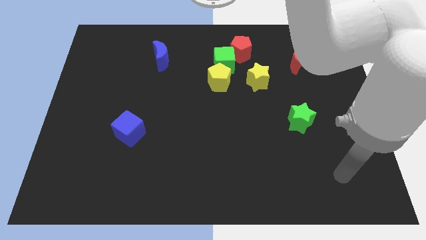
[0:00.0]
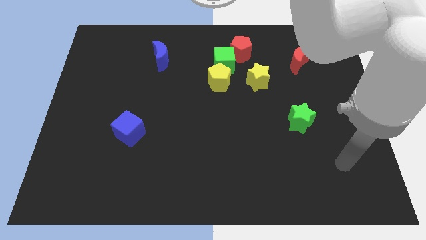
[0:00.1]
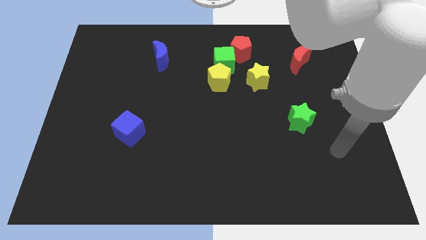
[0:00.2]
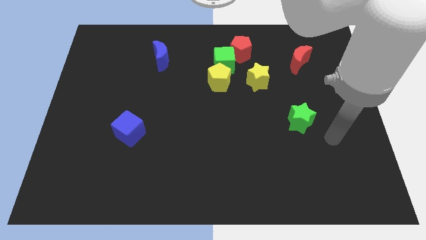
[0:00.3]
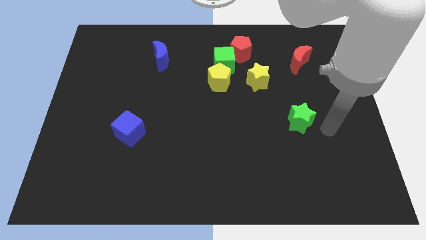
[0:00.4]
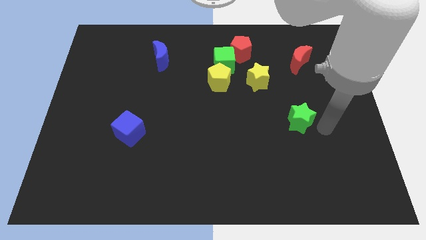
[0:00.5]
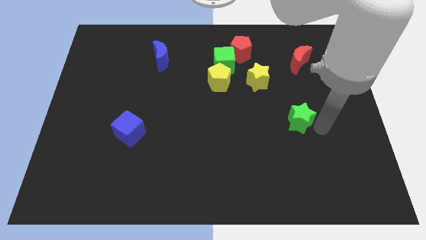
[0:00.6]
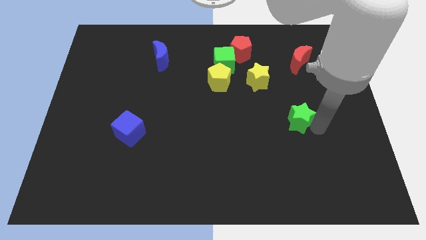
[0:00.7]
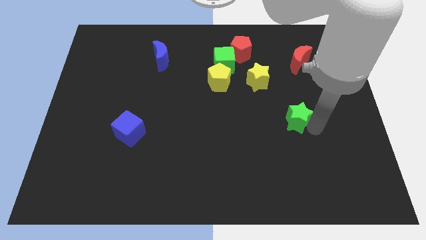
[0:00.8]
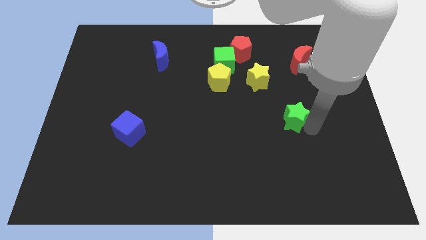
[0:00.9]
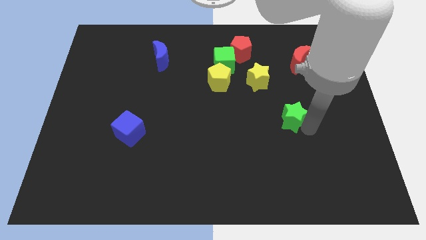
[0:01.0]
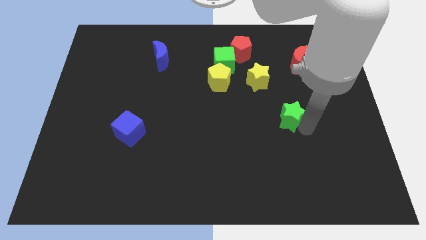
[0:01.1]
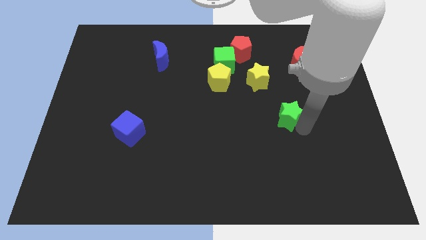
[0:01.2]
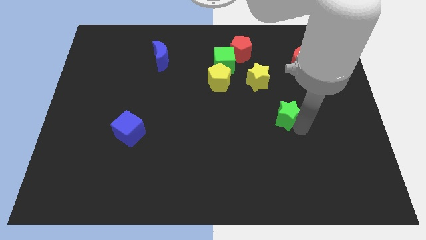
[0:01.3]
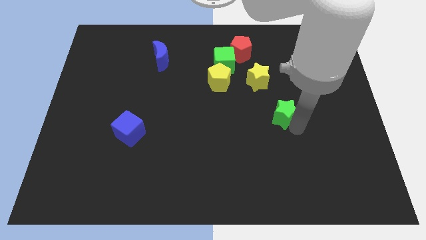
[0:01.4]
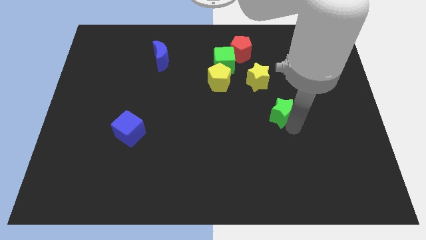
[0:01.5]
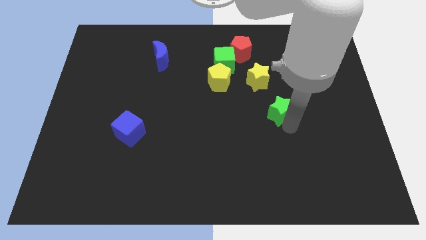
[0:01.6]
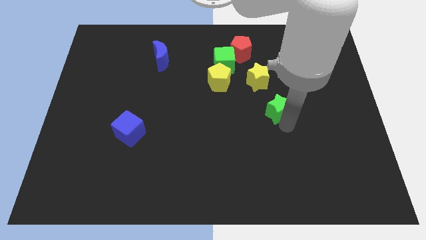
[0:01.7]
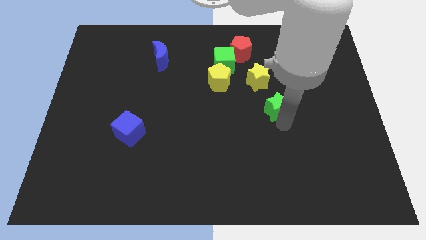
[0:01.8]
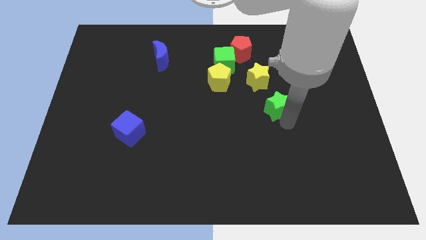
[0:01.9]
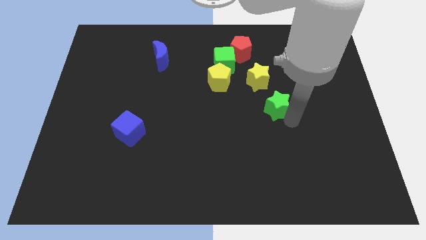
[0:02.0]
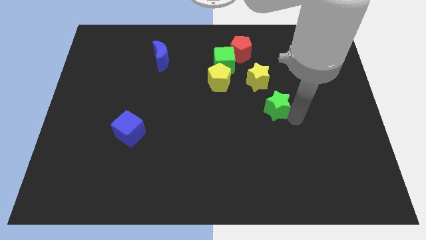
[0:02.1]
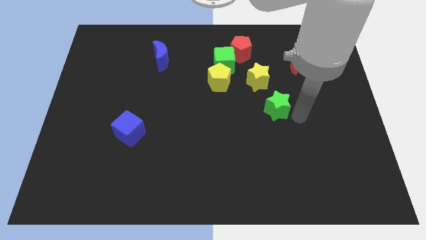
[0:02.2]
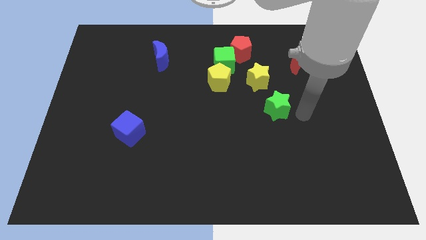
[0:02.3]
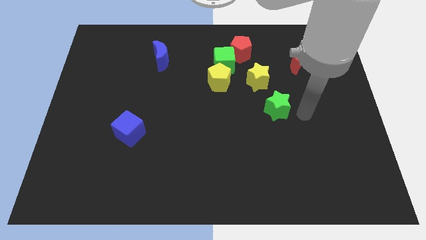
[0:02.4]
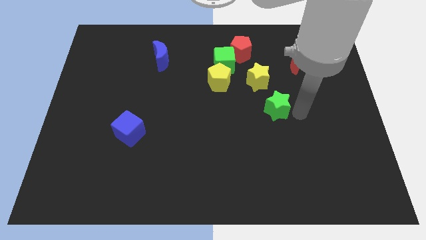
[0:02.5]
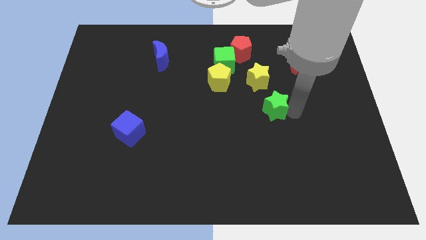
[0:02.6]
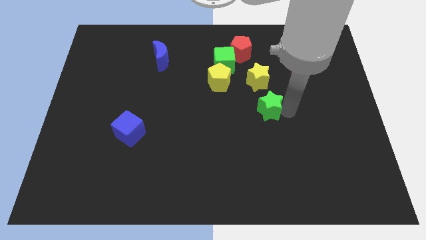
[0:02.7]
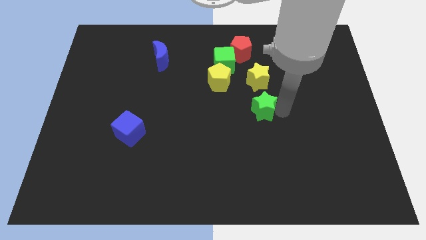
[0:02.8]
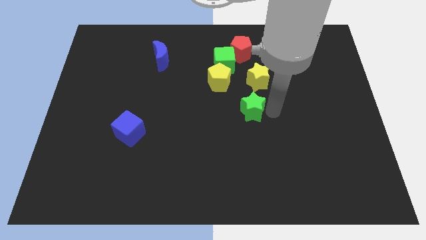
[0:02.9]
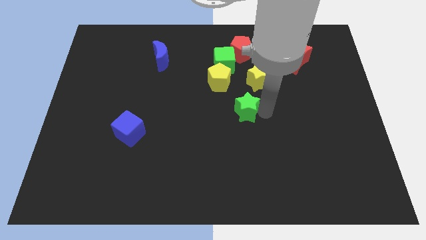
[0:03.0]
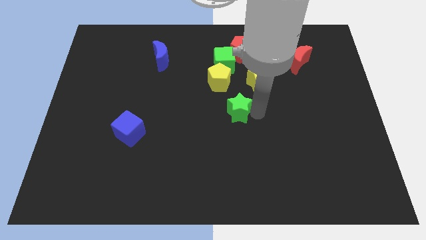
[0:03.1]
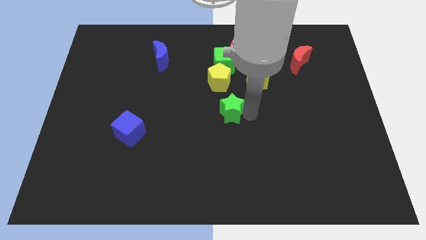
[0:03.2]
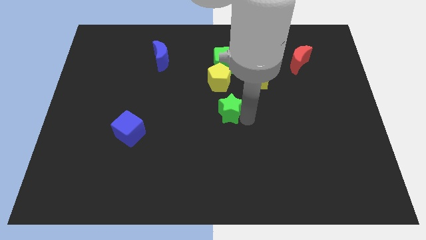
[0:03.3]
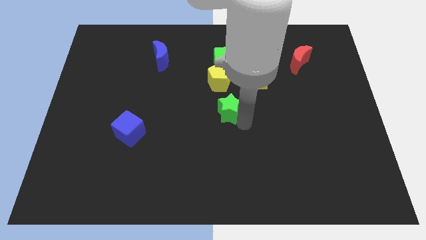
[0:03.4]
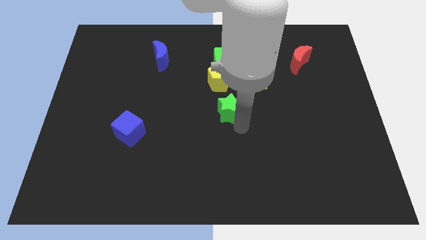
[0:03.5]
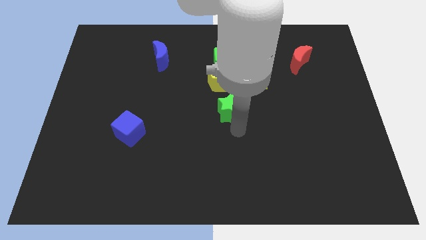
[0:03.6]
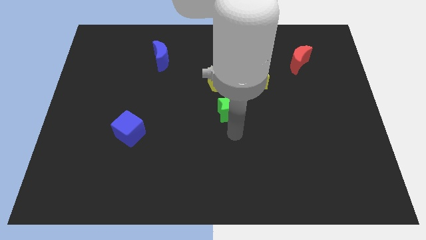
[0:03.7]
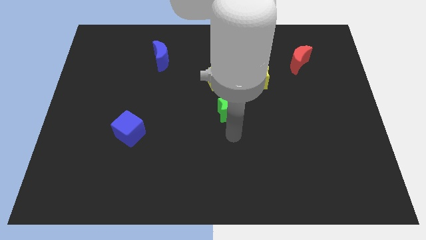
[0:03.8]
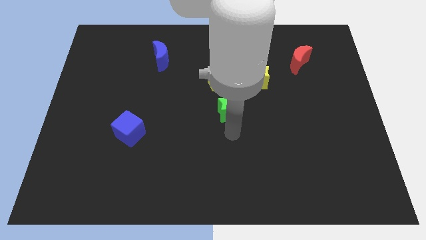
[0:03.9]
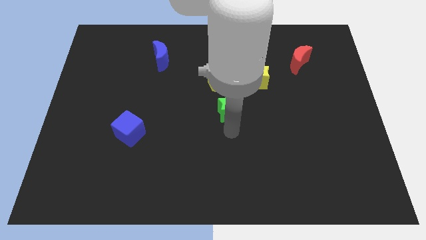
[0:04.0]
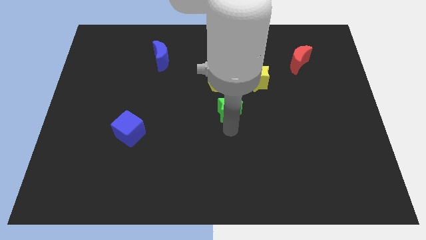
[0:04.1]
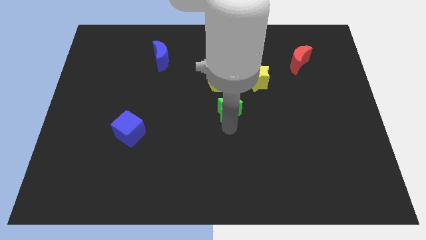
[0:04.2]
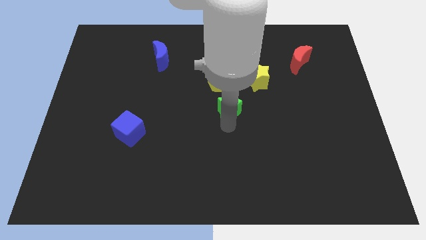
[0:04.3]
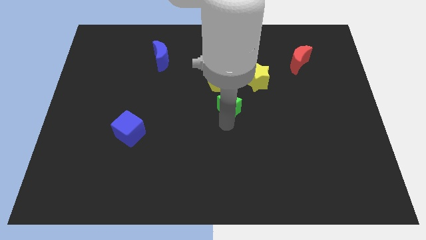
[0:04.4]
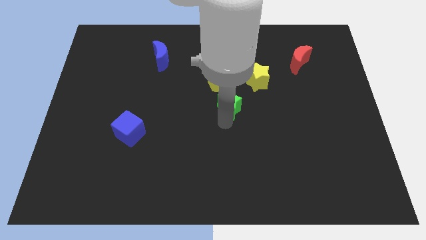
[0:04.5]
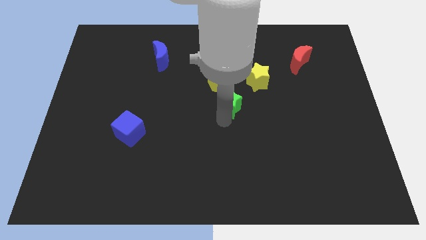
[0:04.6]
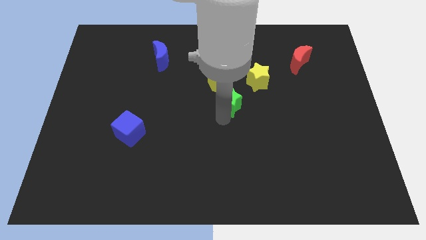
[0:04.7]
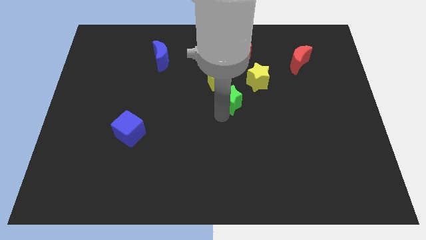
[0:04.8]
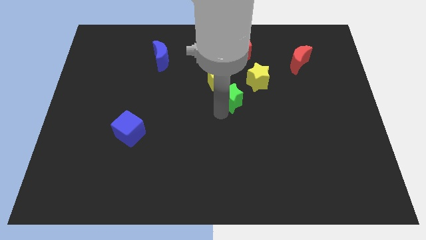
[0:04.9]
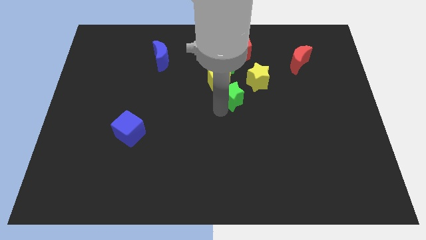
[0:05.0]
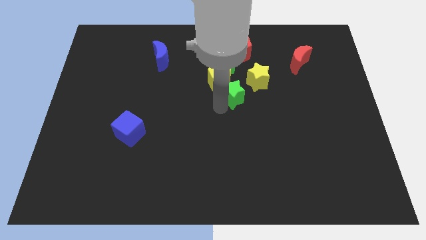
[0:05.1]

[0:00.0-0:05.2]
push the green star close to the yellow pentagon

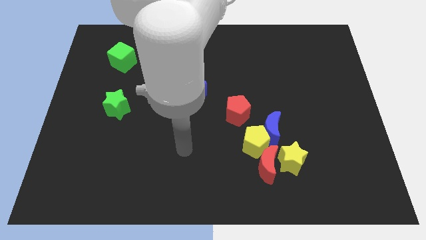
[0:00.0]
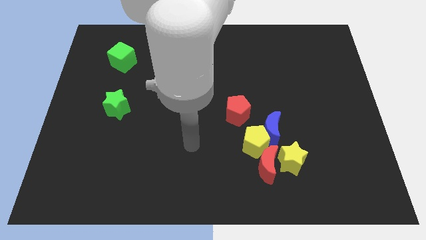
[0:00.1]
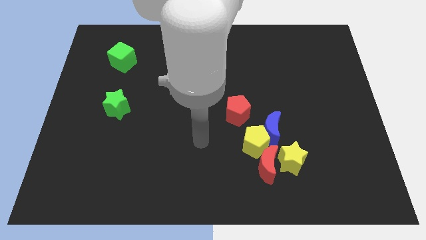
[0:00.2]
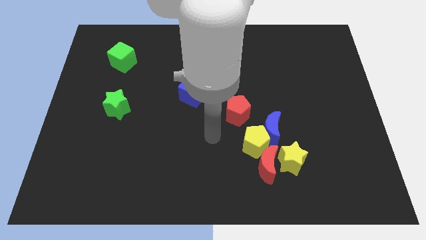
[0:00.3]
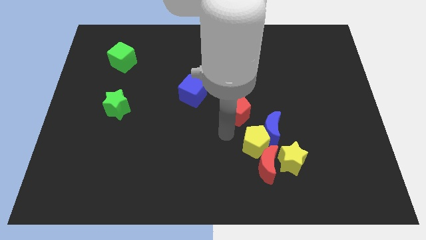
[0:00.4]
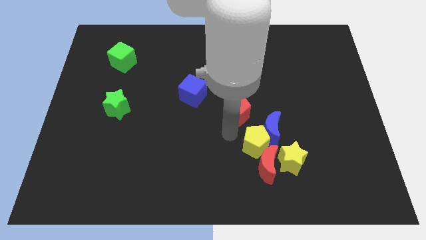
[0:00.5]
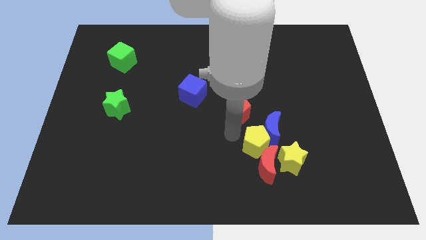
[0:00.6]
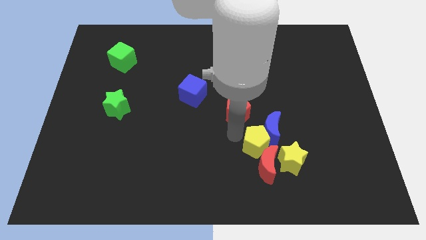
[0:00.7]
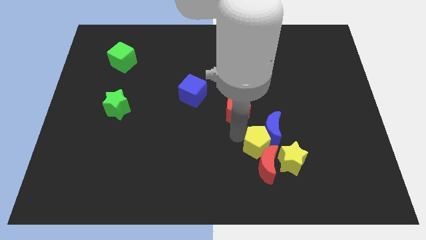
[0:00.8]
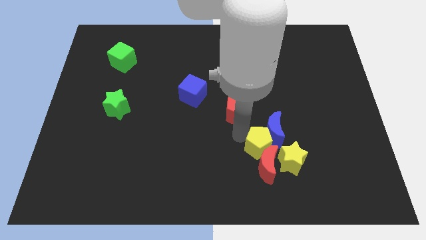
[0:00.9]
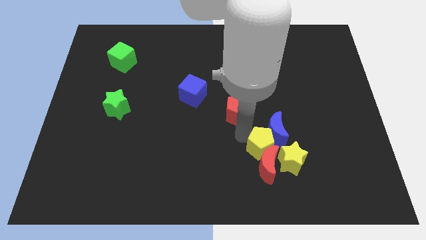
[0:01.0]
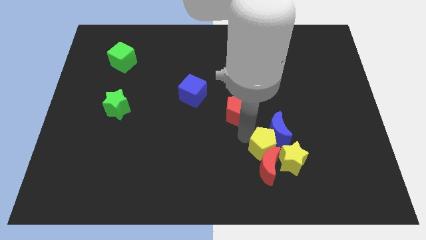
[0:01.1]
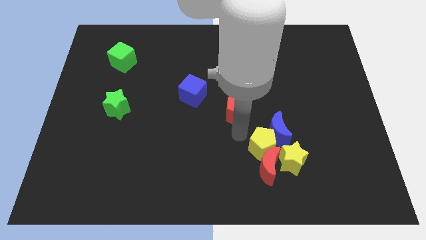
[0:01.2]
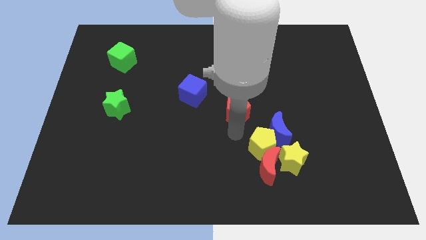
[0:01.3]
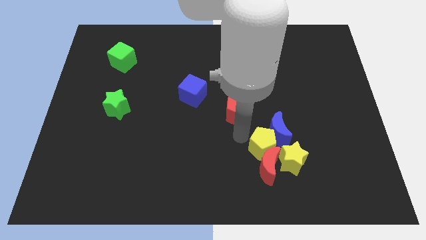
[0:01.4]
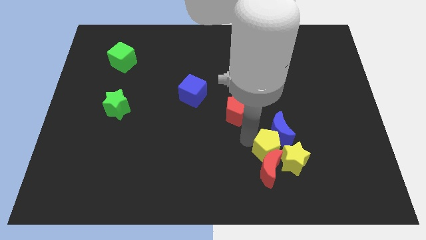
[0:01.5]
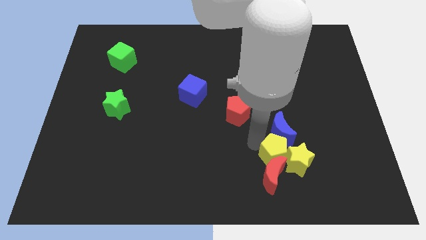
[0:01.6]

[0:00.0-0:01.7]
put the yellow pentagon towards the yellow star

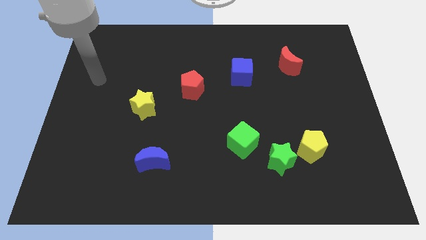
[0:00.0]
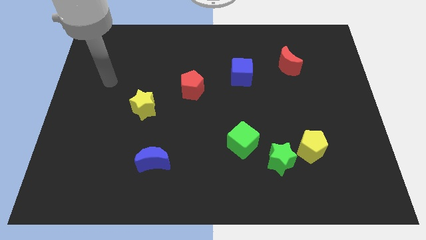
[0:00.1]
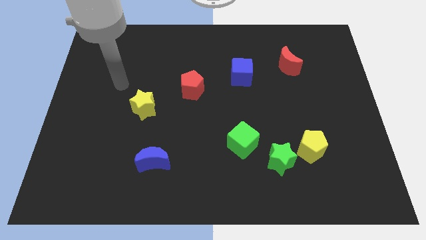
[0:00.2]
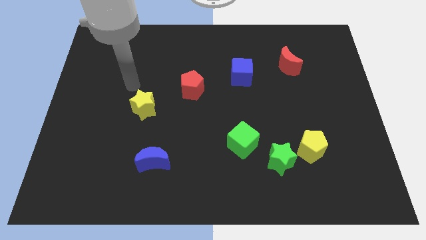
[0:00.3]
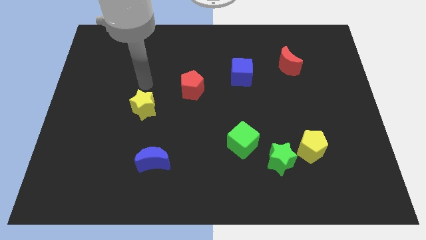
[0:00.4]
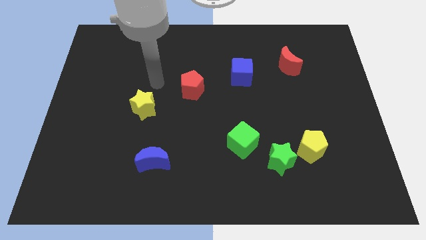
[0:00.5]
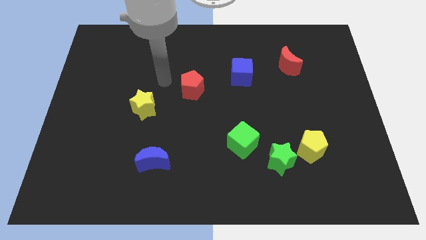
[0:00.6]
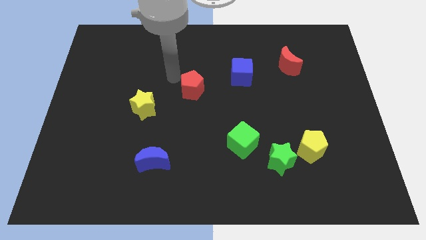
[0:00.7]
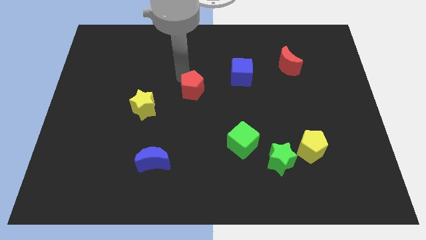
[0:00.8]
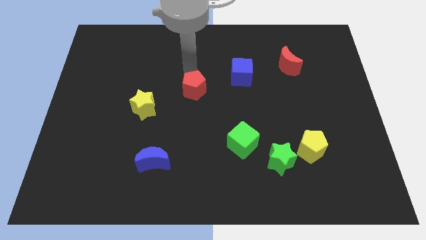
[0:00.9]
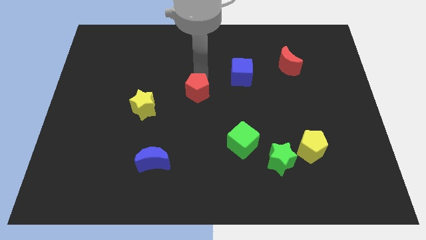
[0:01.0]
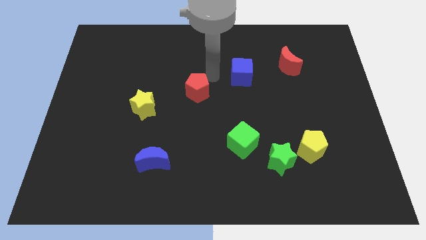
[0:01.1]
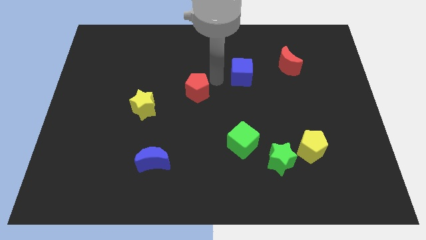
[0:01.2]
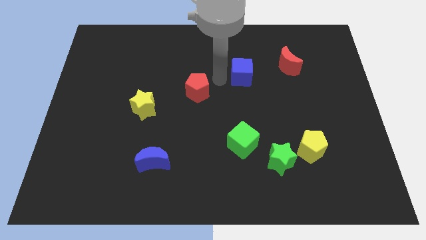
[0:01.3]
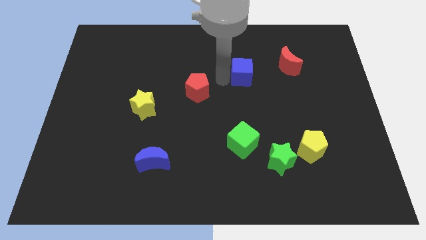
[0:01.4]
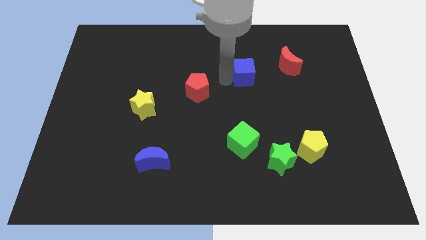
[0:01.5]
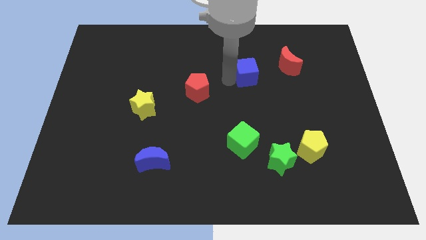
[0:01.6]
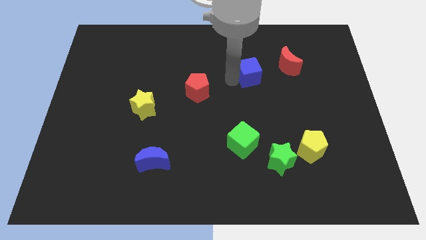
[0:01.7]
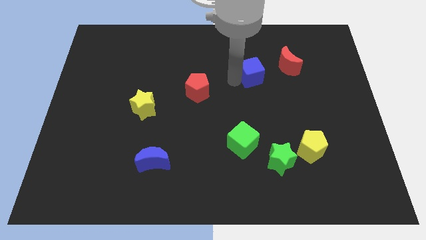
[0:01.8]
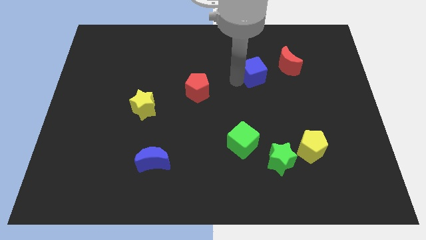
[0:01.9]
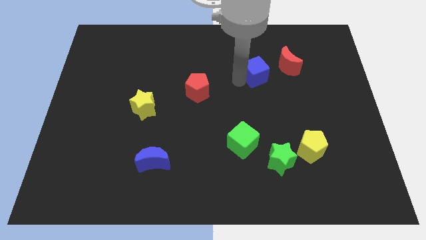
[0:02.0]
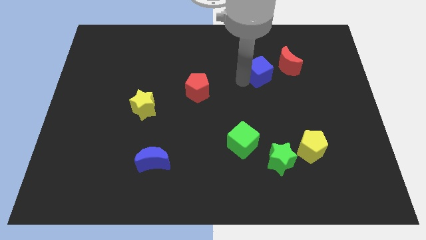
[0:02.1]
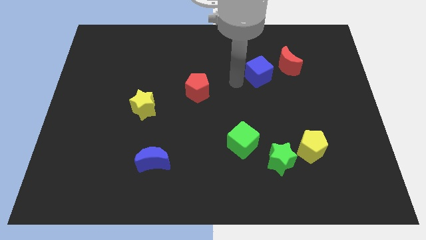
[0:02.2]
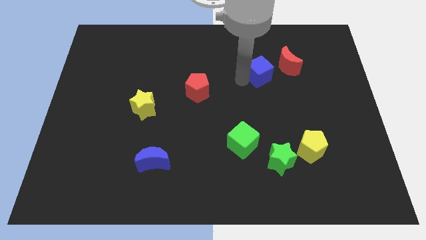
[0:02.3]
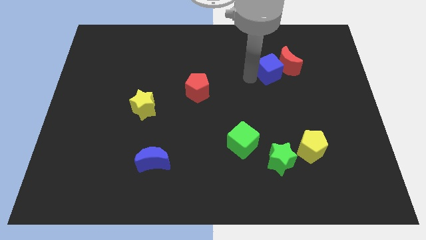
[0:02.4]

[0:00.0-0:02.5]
put the blue cube to the red moon
